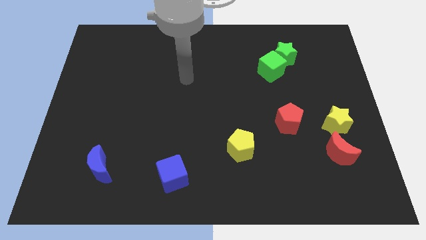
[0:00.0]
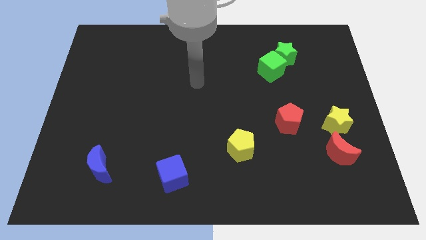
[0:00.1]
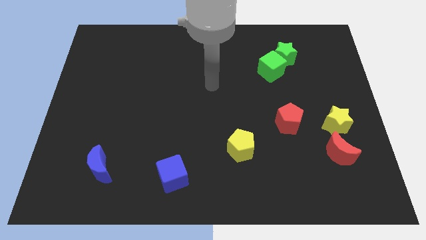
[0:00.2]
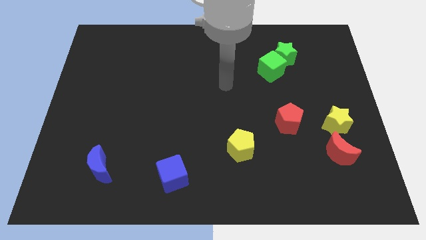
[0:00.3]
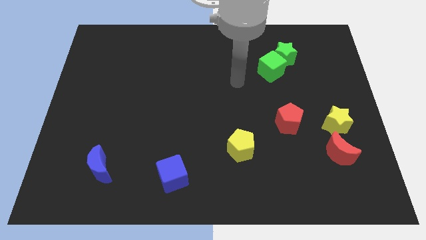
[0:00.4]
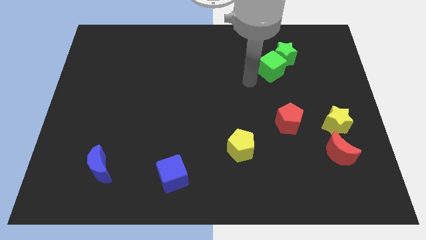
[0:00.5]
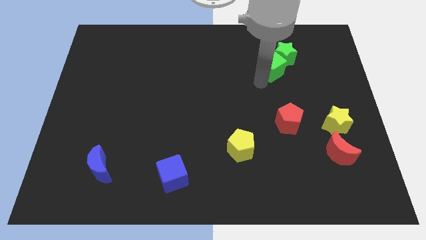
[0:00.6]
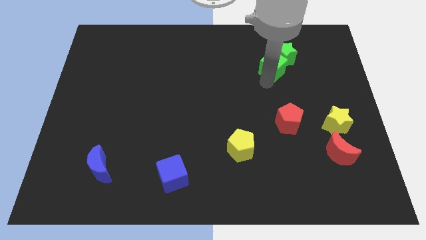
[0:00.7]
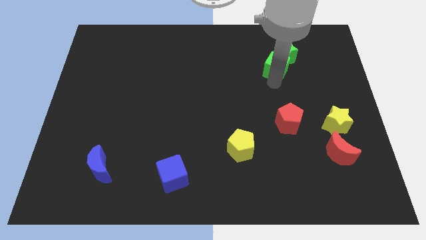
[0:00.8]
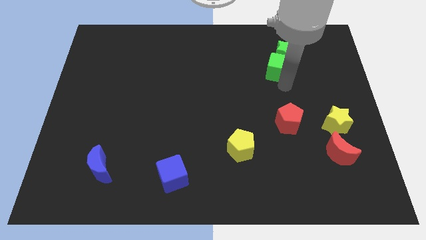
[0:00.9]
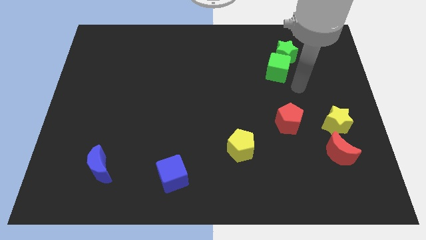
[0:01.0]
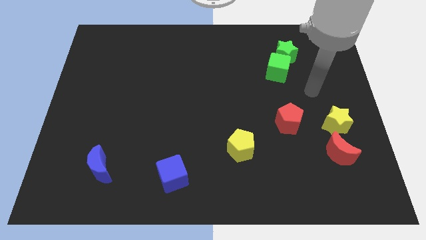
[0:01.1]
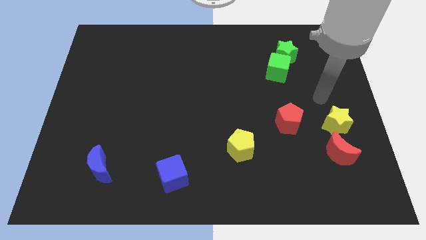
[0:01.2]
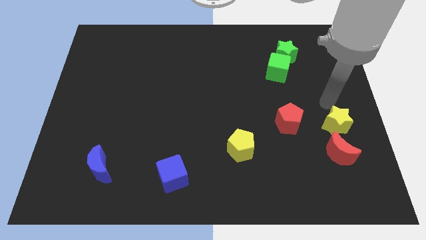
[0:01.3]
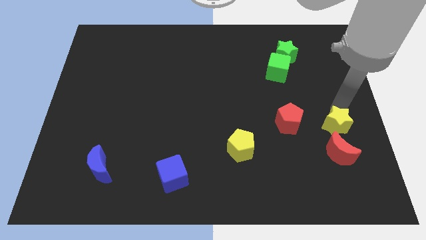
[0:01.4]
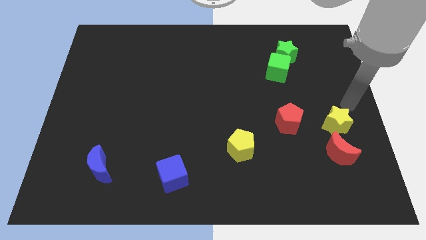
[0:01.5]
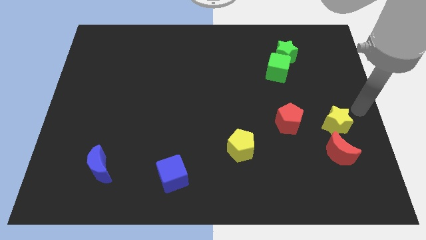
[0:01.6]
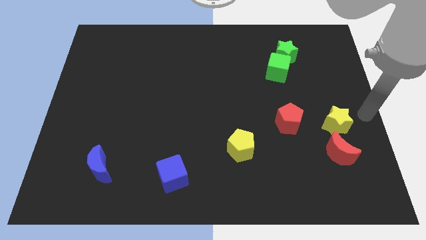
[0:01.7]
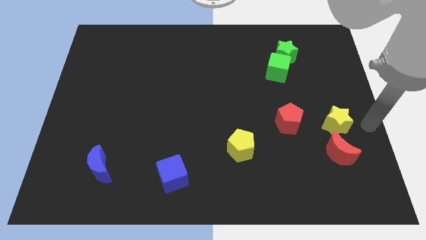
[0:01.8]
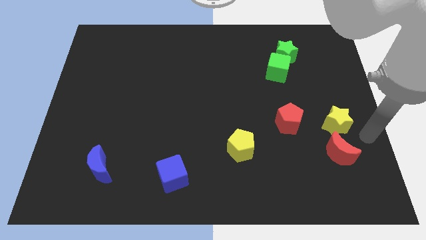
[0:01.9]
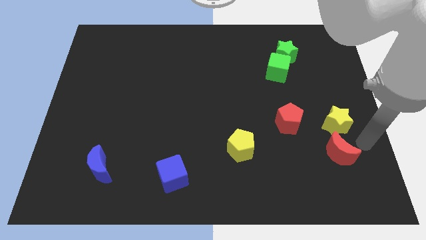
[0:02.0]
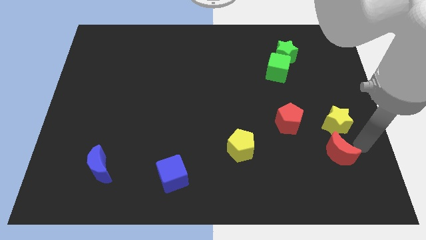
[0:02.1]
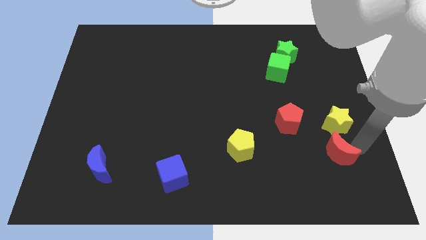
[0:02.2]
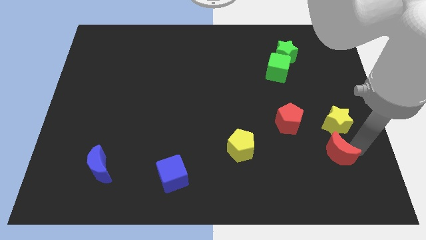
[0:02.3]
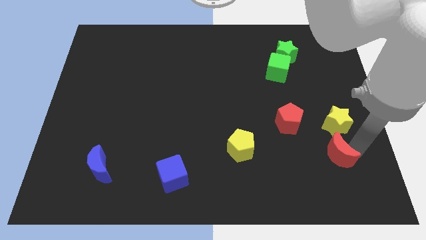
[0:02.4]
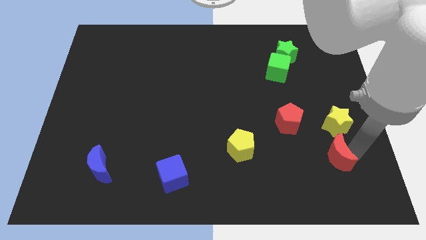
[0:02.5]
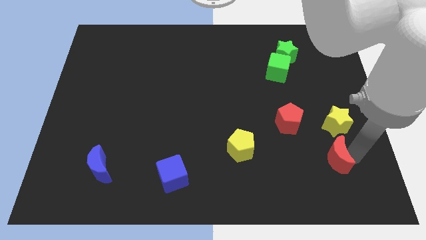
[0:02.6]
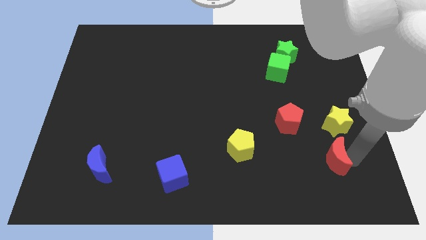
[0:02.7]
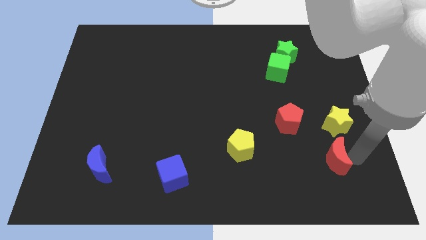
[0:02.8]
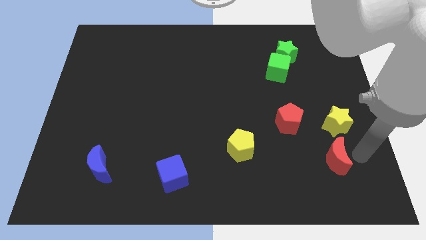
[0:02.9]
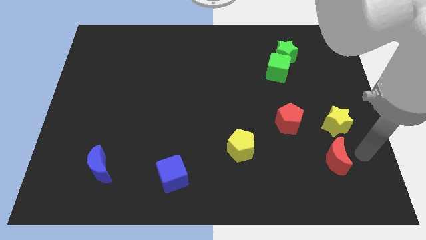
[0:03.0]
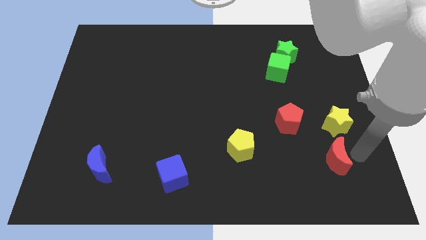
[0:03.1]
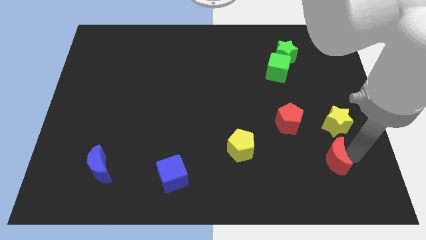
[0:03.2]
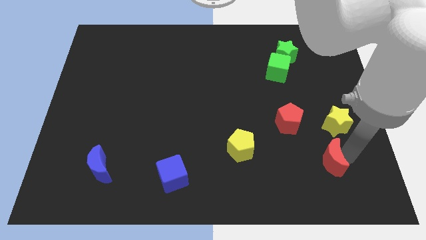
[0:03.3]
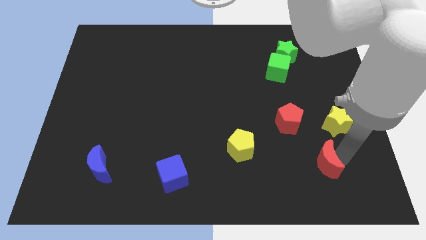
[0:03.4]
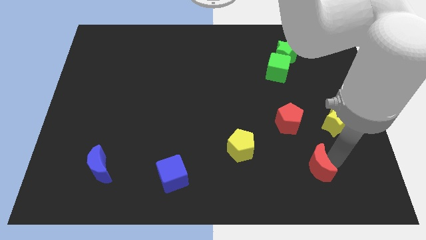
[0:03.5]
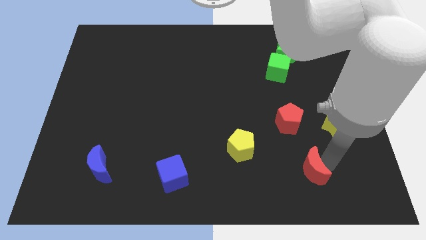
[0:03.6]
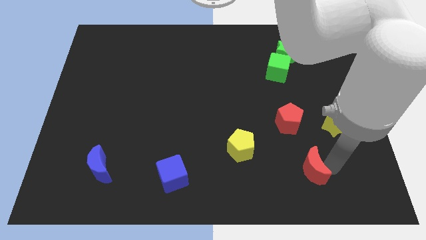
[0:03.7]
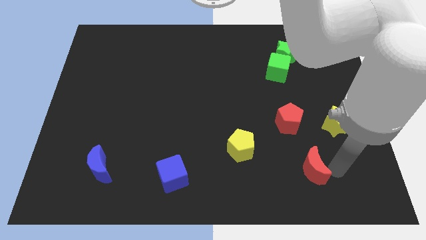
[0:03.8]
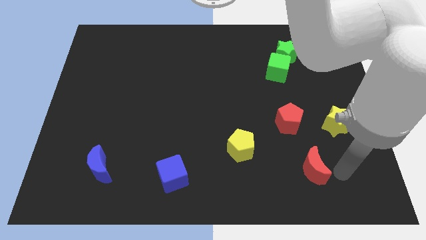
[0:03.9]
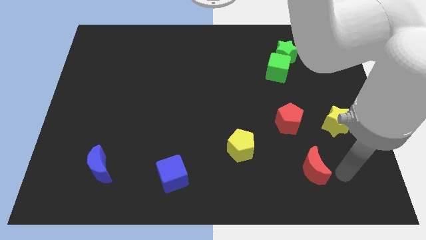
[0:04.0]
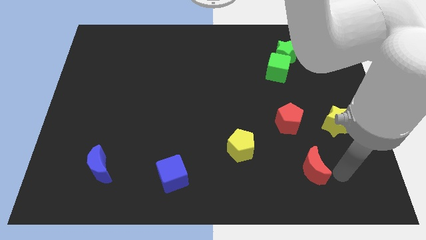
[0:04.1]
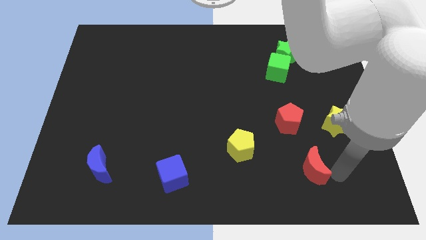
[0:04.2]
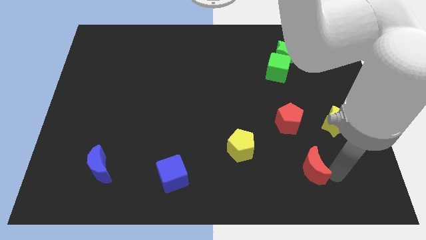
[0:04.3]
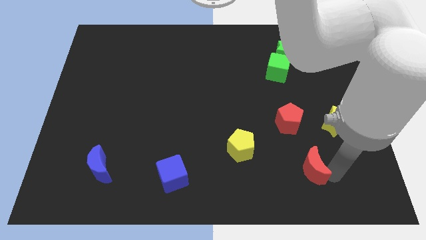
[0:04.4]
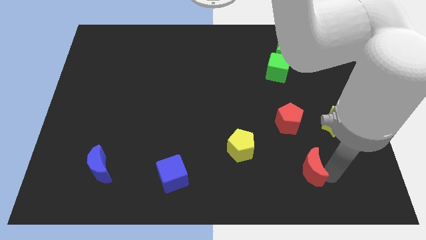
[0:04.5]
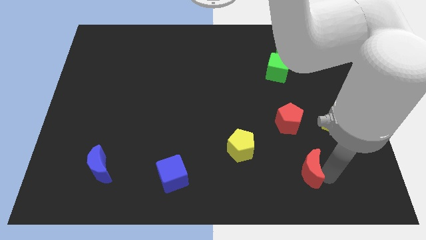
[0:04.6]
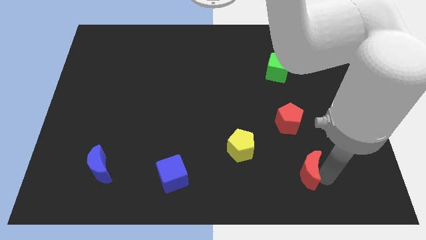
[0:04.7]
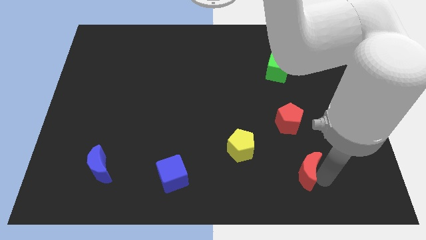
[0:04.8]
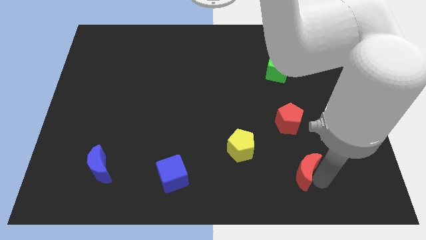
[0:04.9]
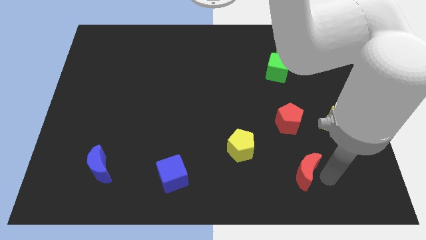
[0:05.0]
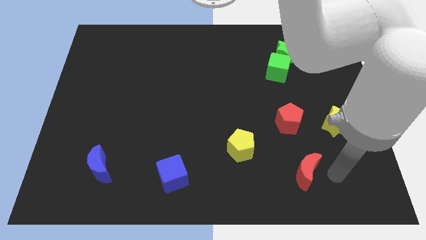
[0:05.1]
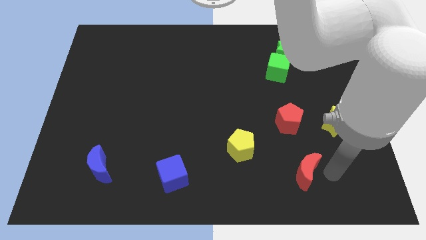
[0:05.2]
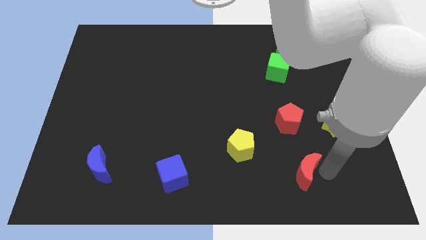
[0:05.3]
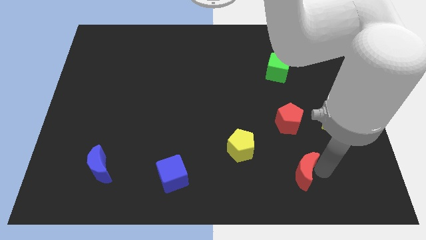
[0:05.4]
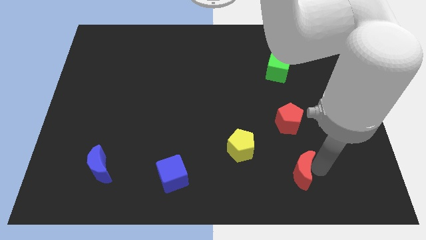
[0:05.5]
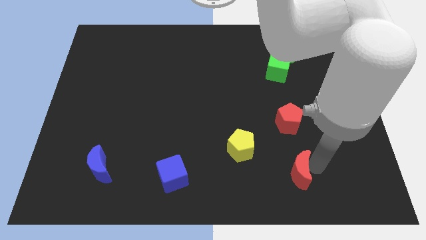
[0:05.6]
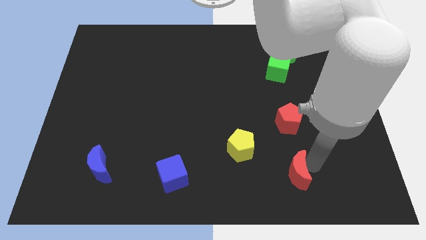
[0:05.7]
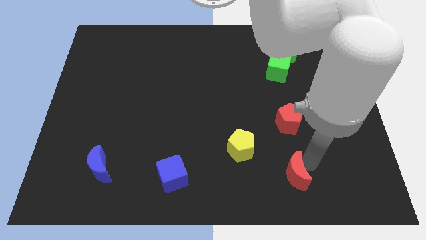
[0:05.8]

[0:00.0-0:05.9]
put the red moon to the bottom right of the yellow pentagon

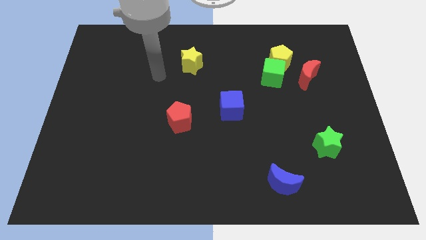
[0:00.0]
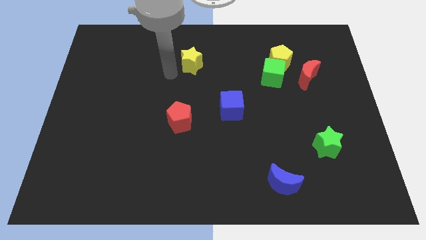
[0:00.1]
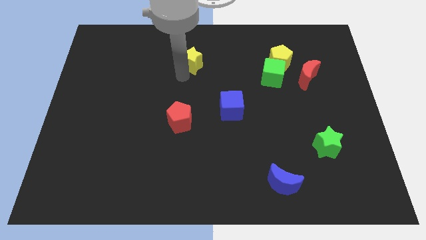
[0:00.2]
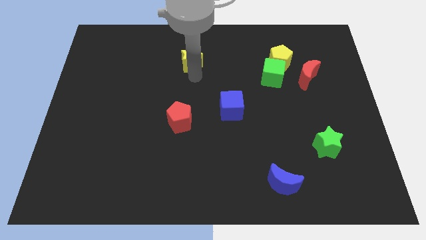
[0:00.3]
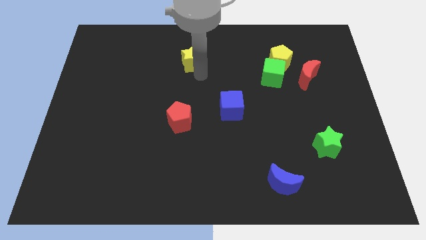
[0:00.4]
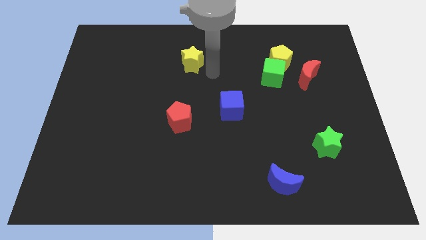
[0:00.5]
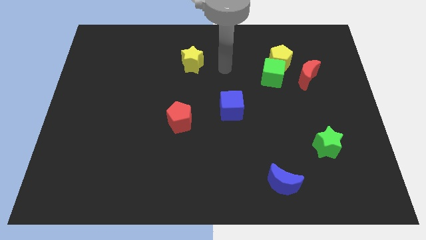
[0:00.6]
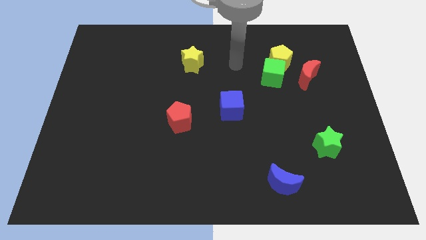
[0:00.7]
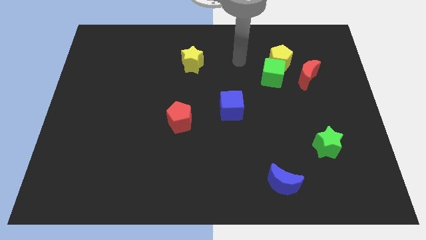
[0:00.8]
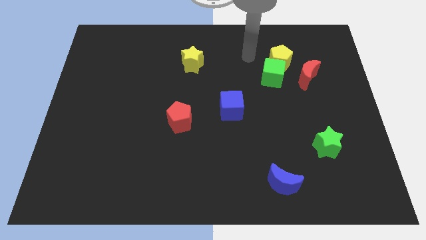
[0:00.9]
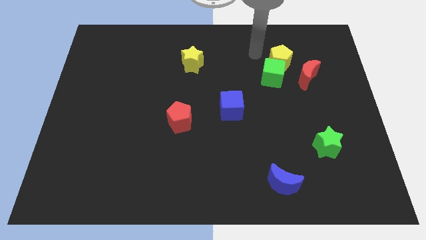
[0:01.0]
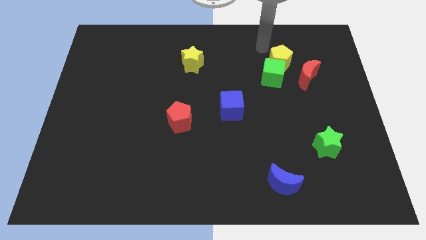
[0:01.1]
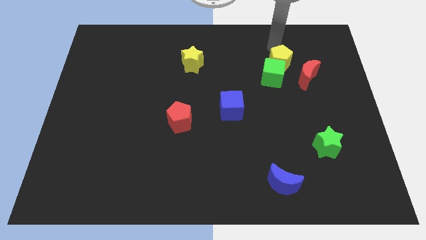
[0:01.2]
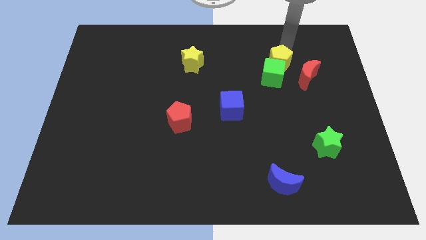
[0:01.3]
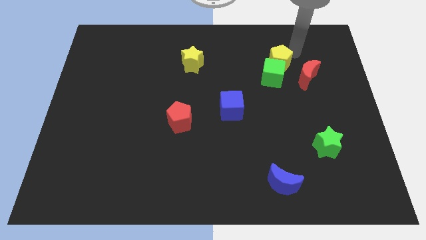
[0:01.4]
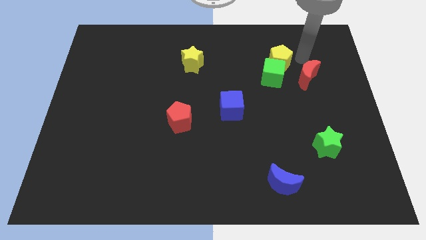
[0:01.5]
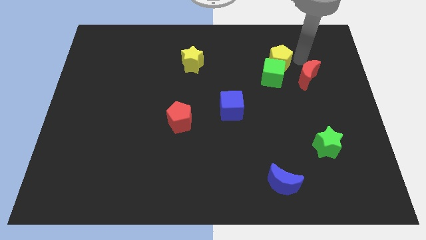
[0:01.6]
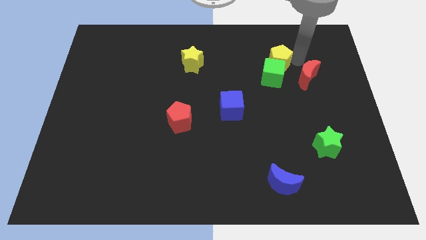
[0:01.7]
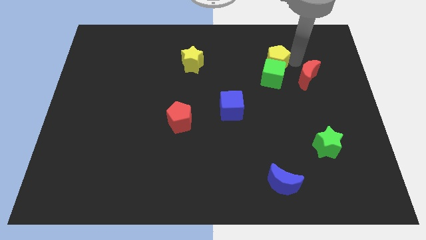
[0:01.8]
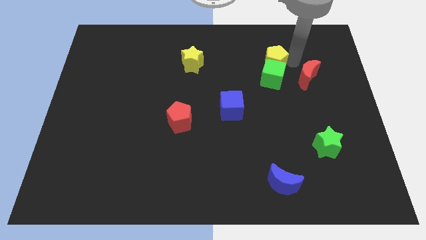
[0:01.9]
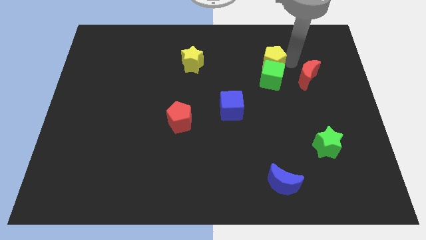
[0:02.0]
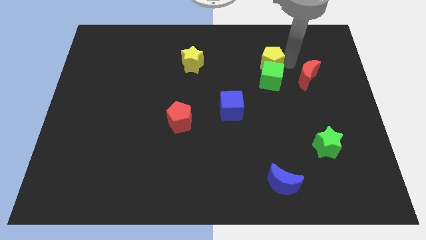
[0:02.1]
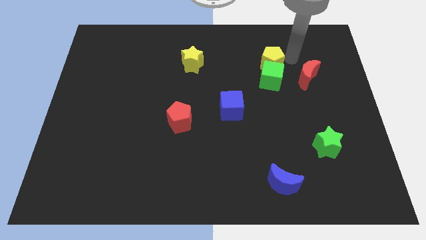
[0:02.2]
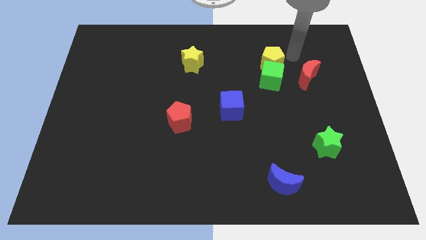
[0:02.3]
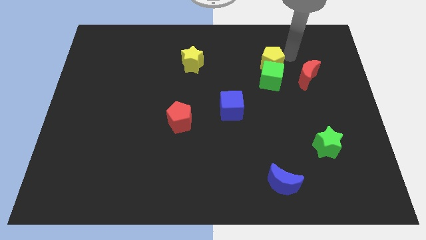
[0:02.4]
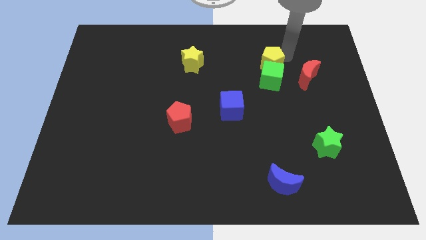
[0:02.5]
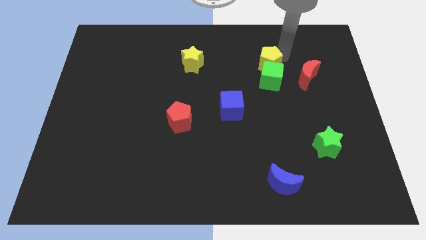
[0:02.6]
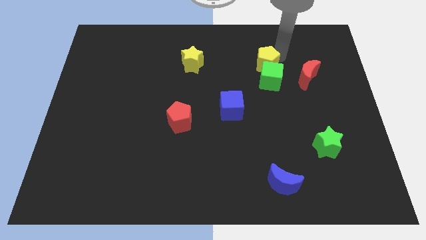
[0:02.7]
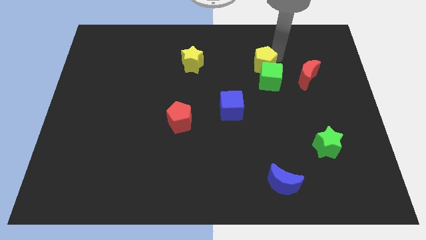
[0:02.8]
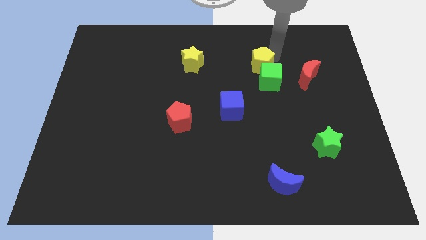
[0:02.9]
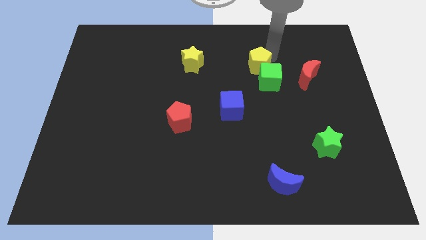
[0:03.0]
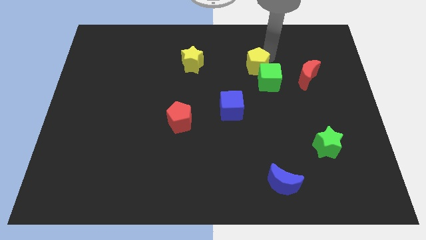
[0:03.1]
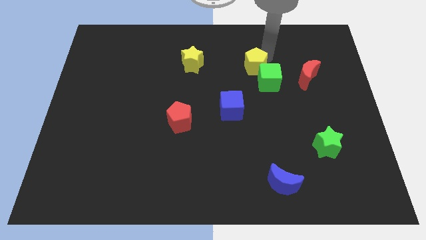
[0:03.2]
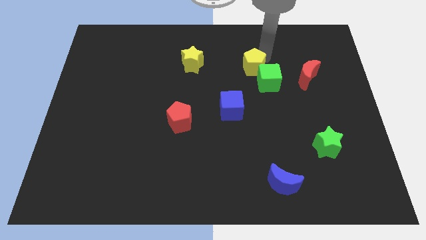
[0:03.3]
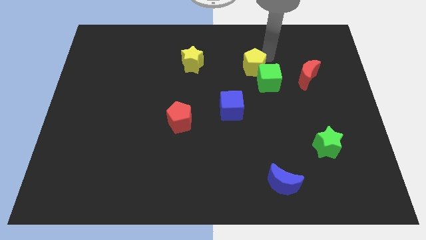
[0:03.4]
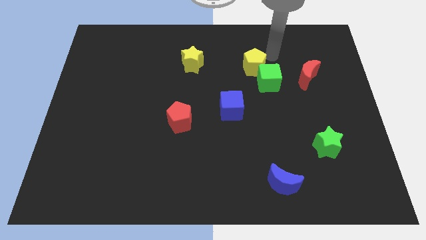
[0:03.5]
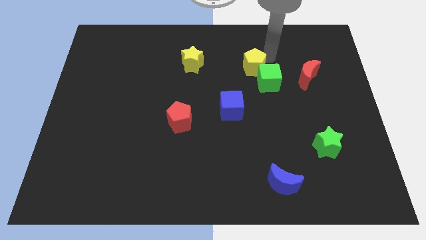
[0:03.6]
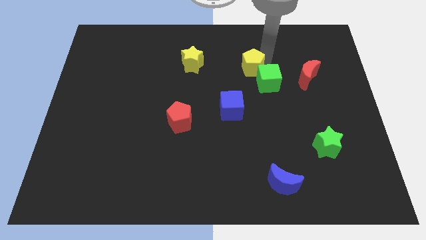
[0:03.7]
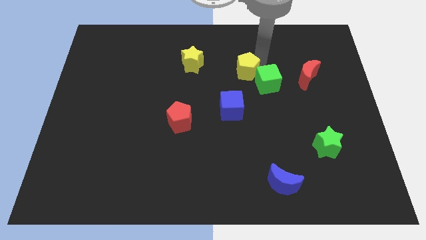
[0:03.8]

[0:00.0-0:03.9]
put the yellow pentagon to the top side of the blue cube
